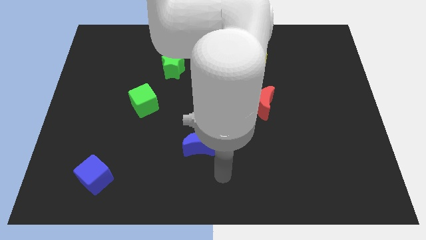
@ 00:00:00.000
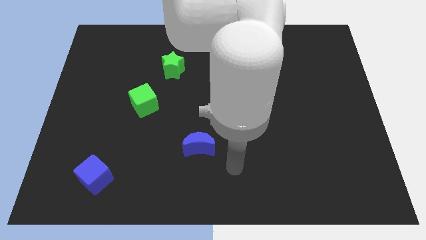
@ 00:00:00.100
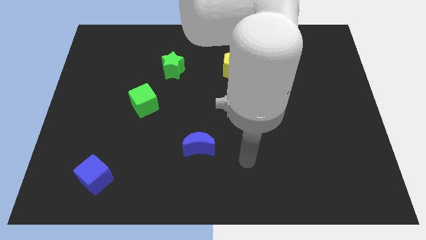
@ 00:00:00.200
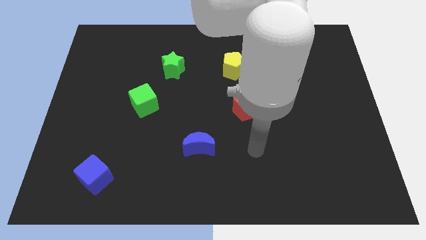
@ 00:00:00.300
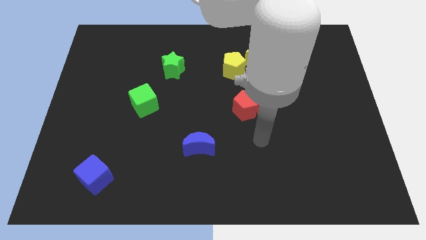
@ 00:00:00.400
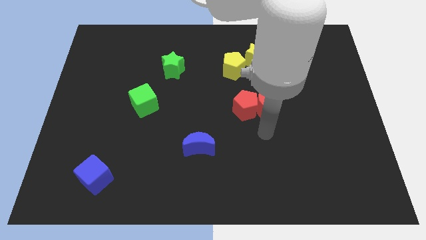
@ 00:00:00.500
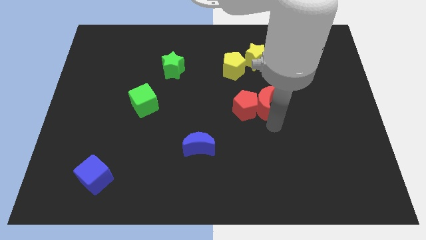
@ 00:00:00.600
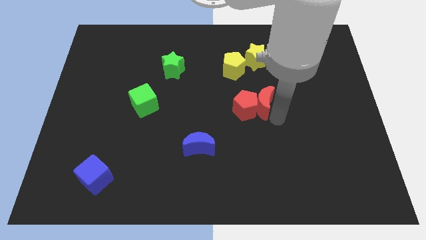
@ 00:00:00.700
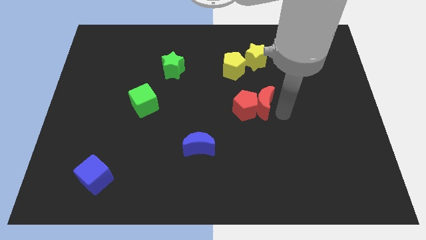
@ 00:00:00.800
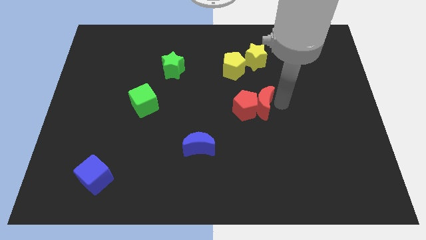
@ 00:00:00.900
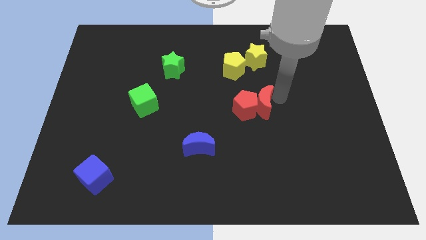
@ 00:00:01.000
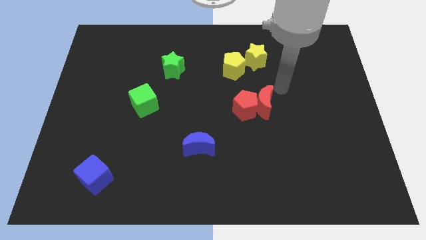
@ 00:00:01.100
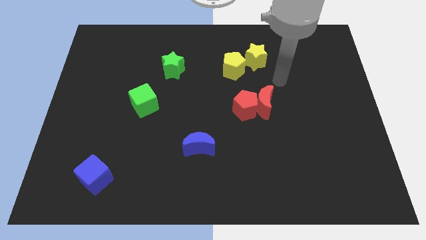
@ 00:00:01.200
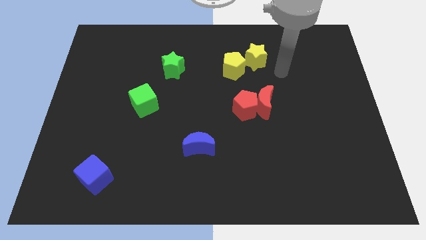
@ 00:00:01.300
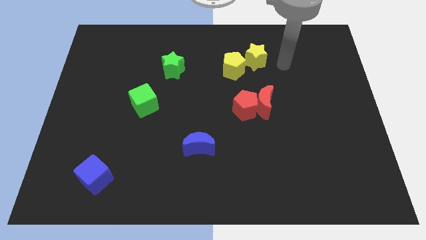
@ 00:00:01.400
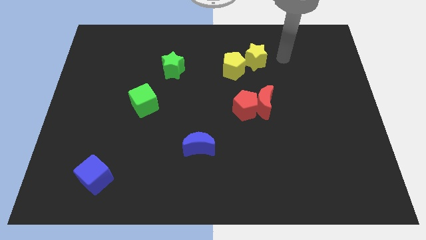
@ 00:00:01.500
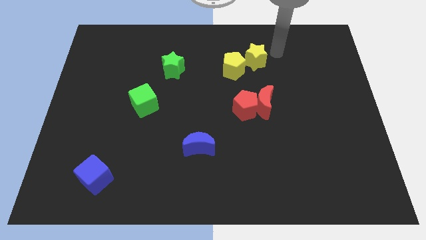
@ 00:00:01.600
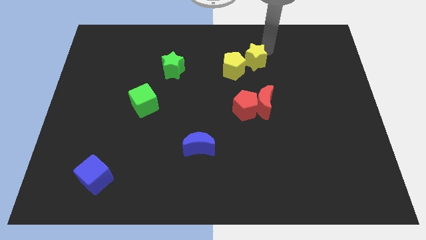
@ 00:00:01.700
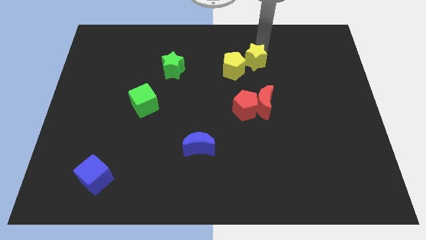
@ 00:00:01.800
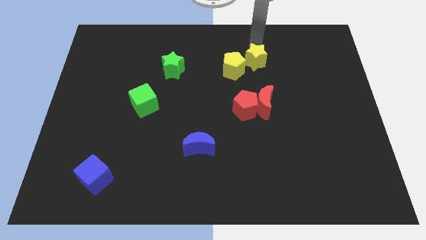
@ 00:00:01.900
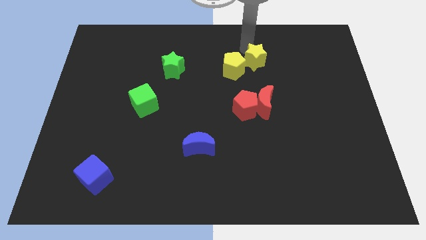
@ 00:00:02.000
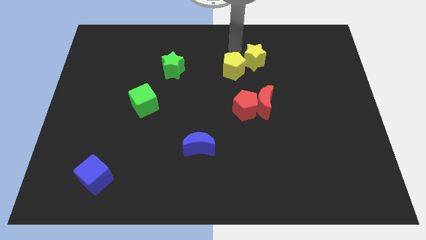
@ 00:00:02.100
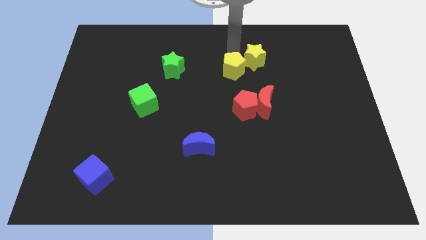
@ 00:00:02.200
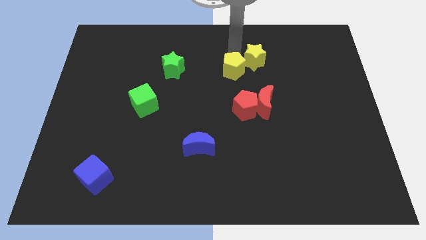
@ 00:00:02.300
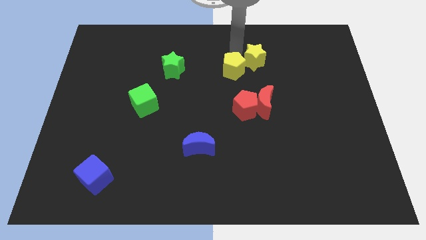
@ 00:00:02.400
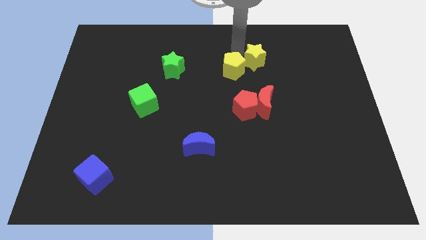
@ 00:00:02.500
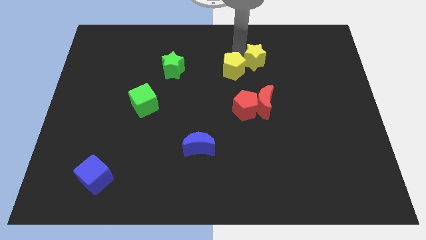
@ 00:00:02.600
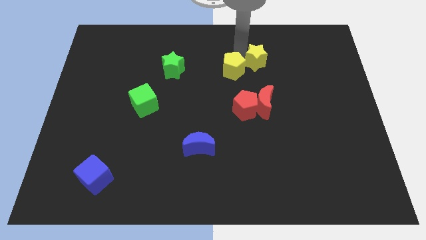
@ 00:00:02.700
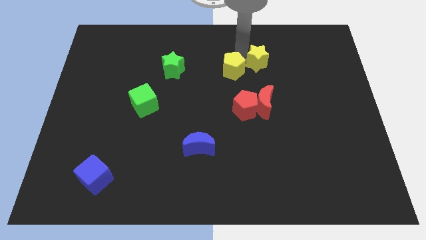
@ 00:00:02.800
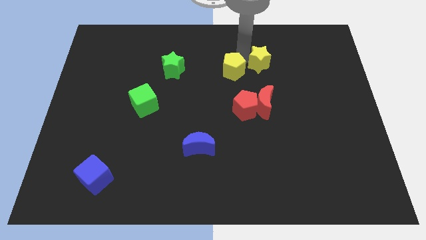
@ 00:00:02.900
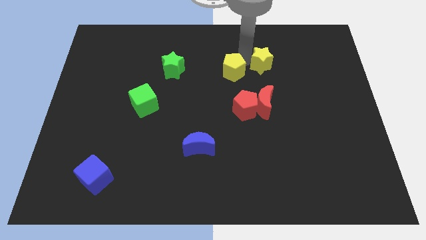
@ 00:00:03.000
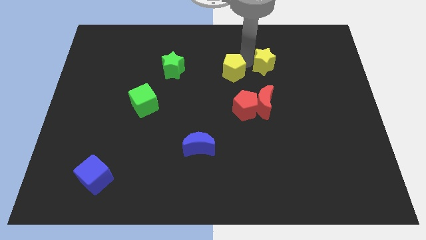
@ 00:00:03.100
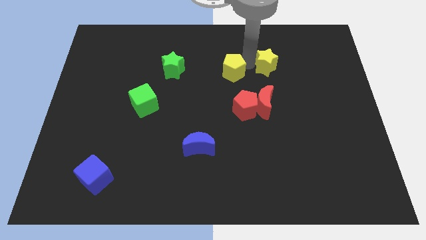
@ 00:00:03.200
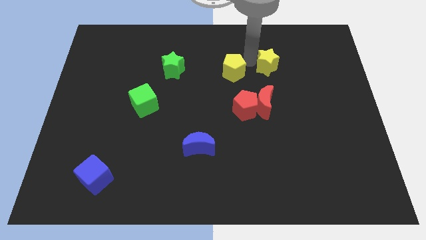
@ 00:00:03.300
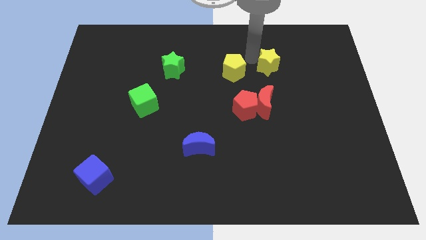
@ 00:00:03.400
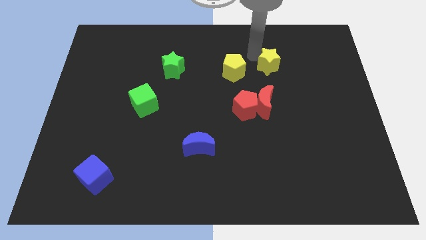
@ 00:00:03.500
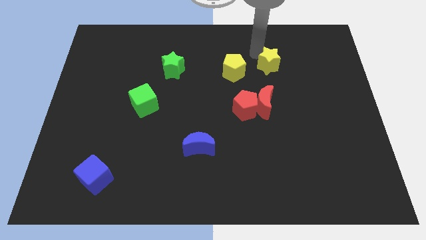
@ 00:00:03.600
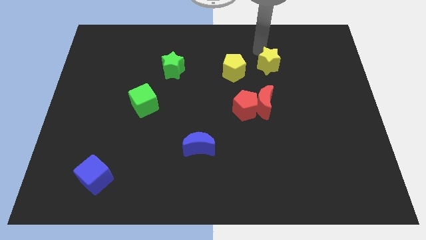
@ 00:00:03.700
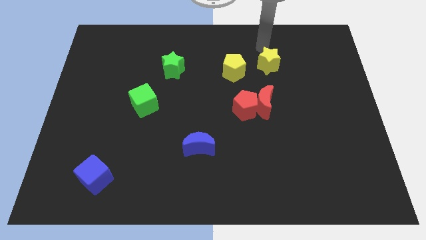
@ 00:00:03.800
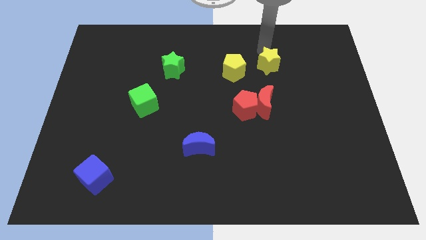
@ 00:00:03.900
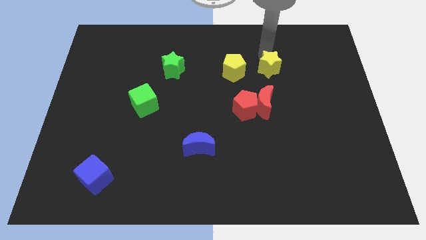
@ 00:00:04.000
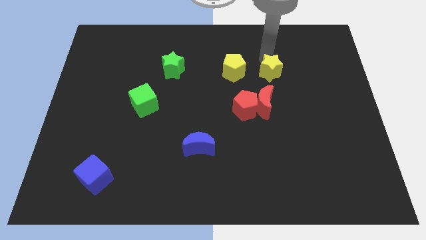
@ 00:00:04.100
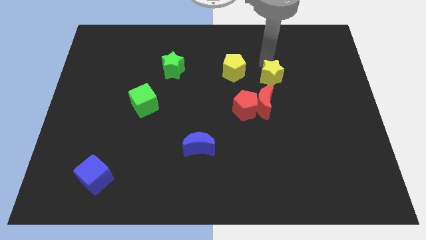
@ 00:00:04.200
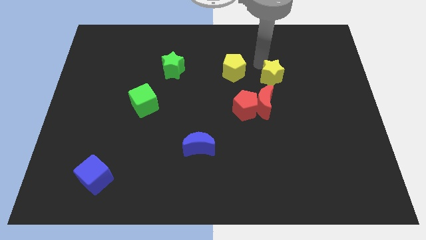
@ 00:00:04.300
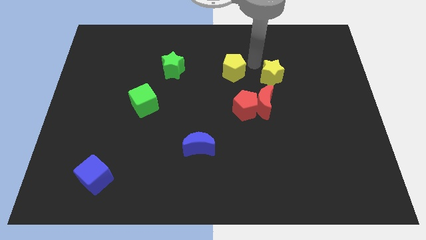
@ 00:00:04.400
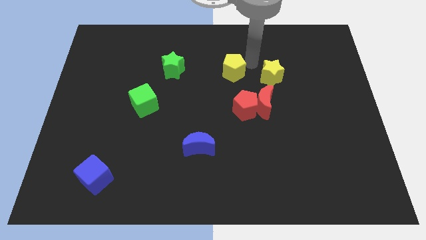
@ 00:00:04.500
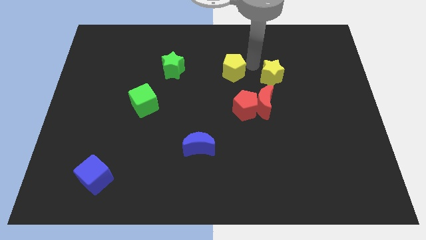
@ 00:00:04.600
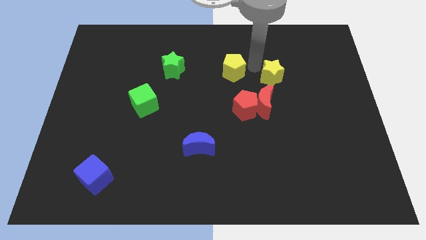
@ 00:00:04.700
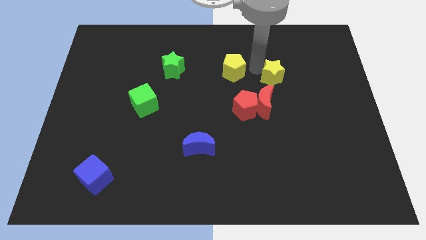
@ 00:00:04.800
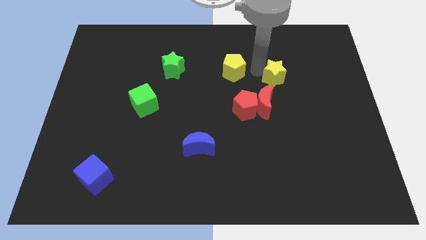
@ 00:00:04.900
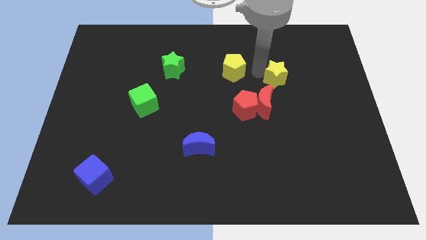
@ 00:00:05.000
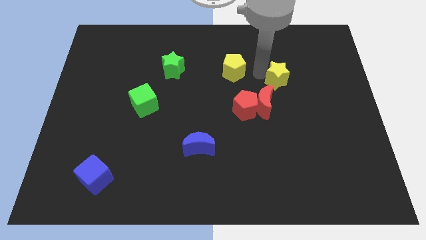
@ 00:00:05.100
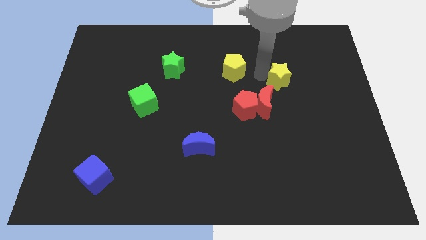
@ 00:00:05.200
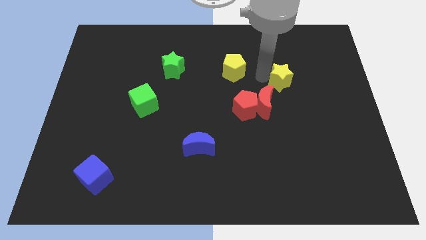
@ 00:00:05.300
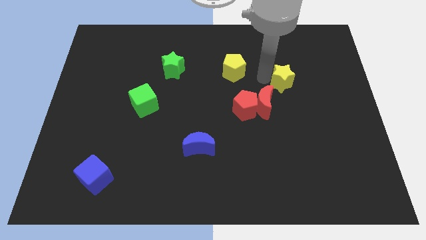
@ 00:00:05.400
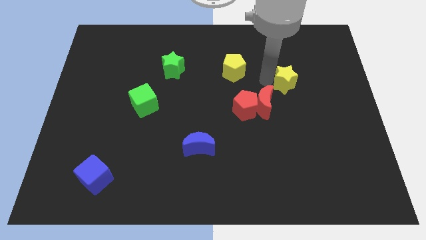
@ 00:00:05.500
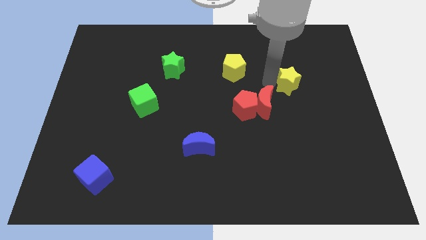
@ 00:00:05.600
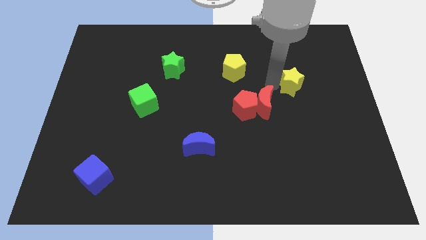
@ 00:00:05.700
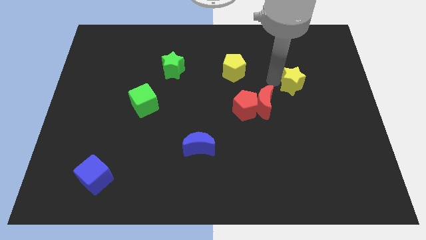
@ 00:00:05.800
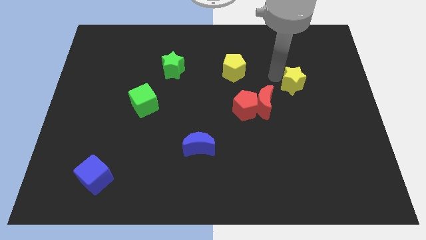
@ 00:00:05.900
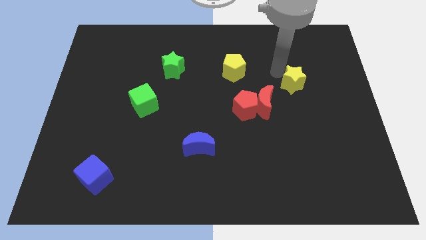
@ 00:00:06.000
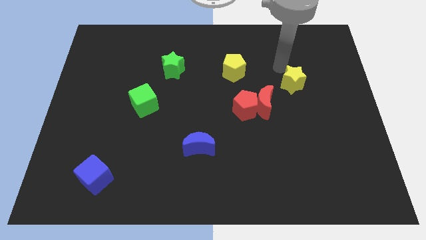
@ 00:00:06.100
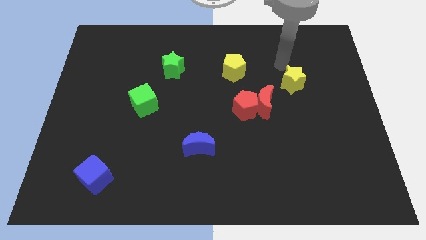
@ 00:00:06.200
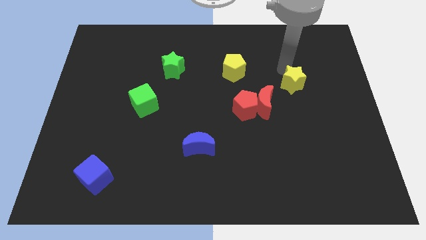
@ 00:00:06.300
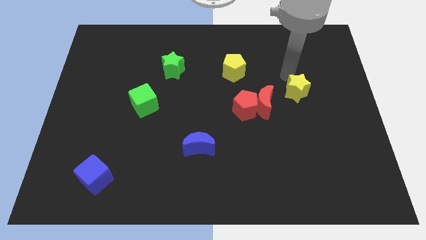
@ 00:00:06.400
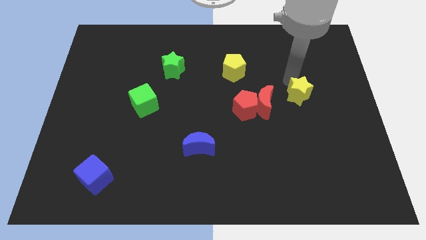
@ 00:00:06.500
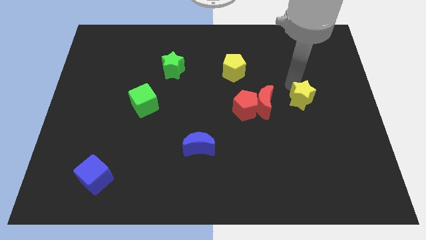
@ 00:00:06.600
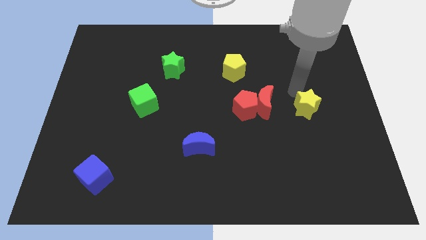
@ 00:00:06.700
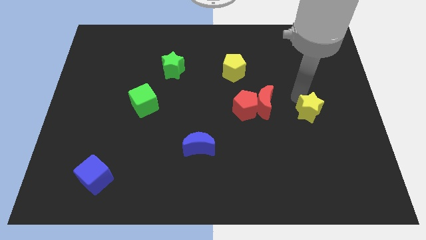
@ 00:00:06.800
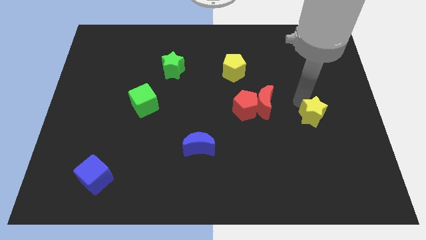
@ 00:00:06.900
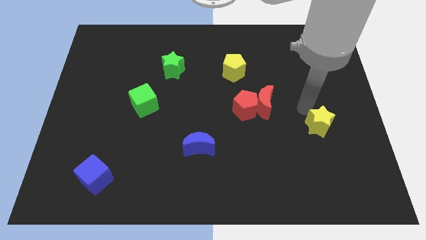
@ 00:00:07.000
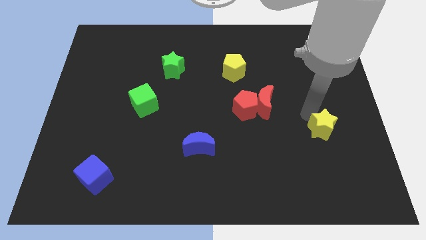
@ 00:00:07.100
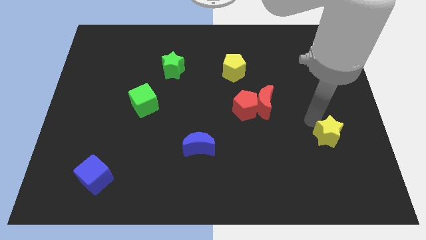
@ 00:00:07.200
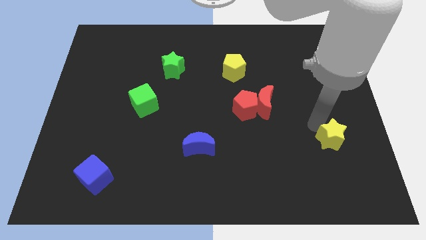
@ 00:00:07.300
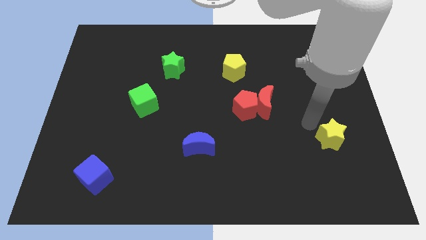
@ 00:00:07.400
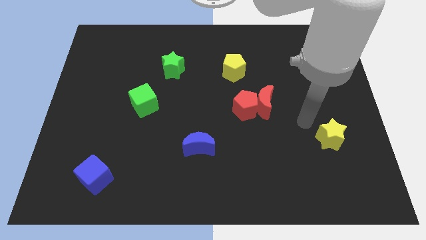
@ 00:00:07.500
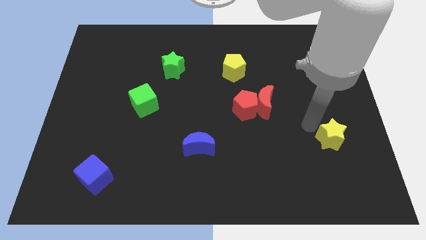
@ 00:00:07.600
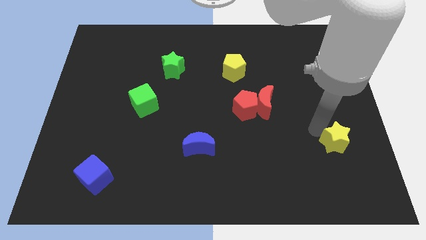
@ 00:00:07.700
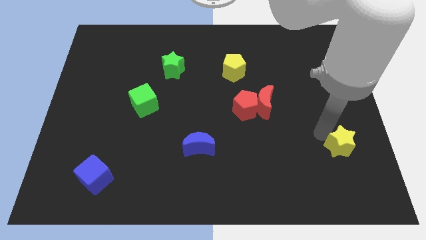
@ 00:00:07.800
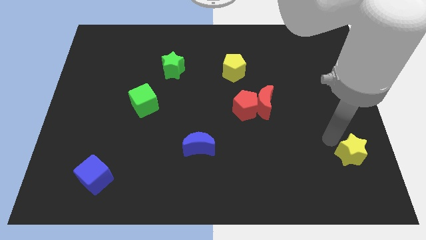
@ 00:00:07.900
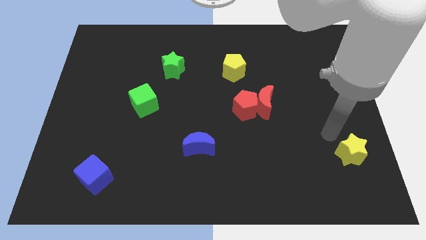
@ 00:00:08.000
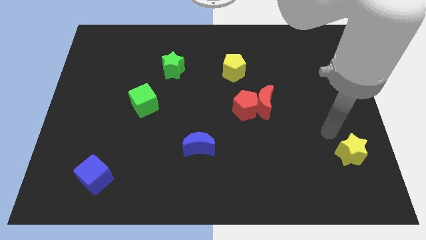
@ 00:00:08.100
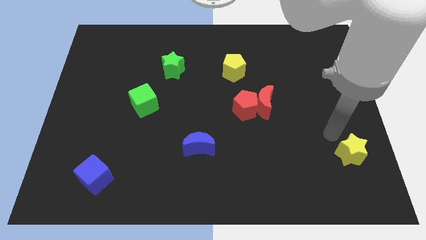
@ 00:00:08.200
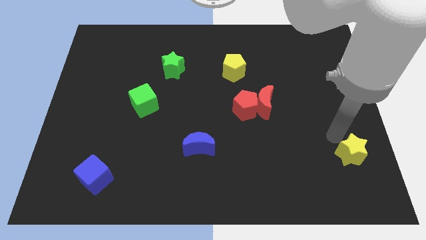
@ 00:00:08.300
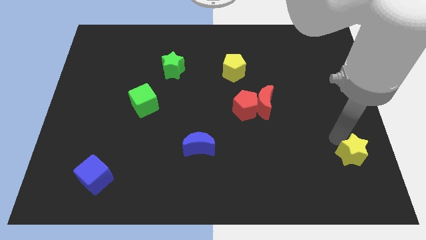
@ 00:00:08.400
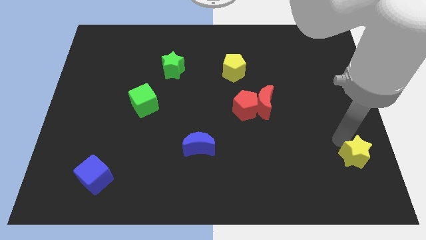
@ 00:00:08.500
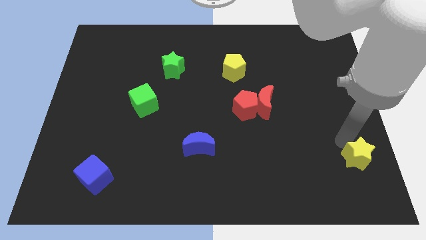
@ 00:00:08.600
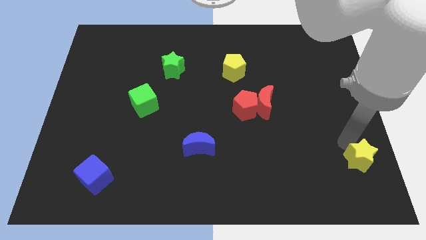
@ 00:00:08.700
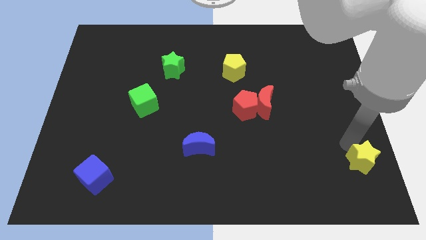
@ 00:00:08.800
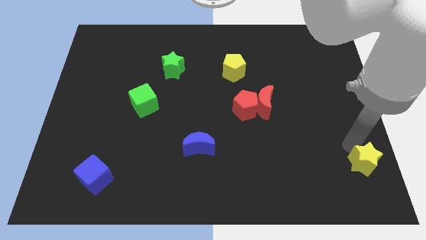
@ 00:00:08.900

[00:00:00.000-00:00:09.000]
push the yellow star to the bottom right of the board
